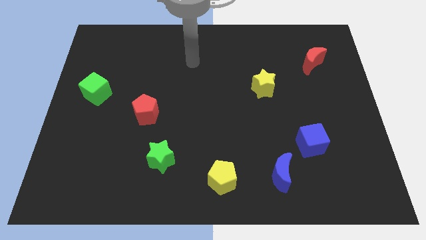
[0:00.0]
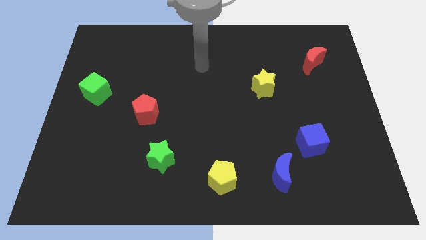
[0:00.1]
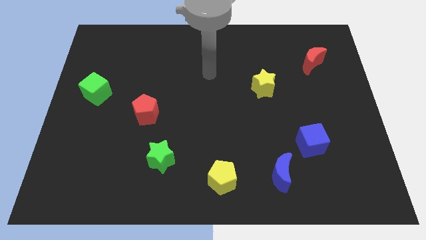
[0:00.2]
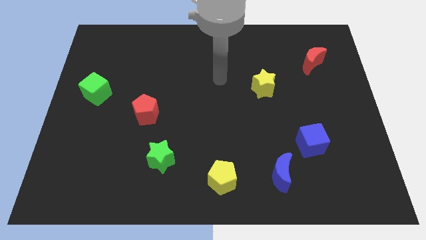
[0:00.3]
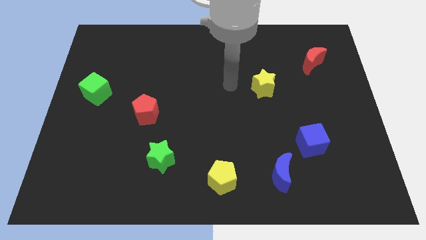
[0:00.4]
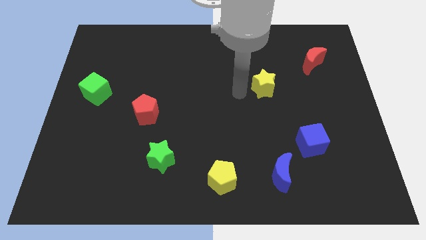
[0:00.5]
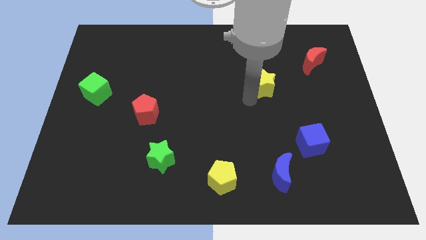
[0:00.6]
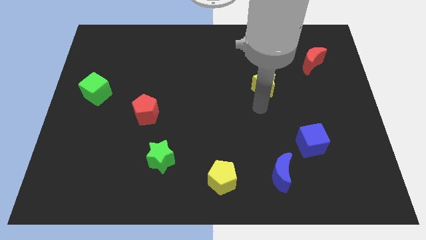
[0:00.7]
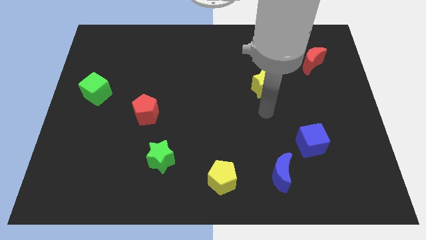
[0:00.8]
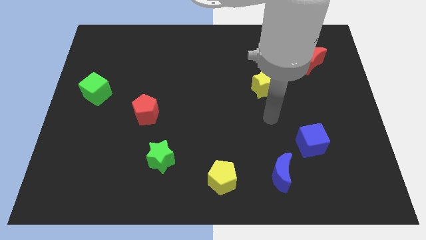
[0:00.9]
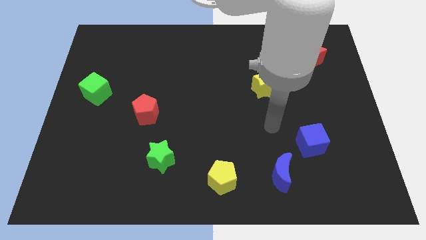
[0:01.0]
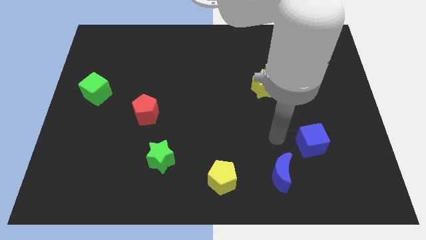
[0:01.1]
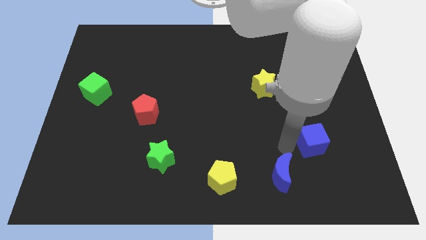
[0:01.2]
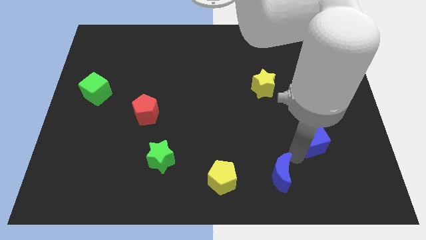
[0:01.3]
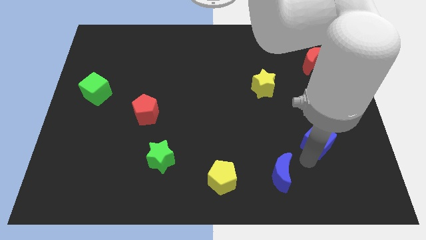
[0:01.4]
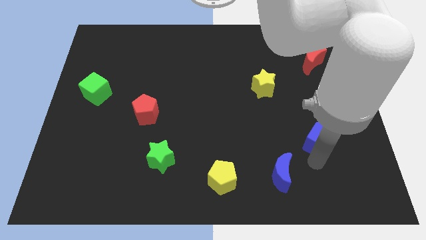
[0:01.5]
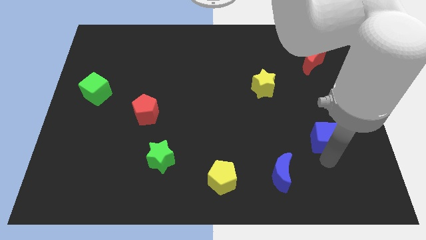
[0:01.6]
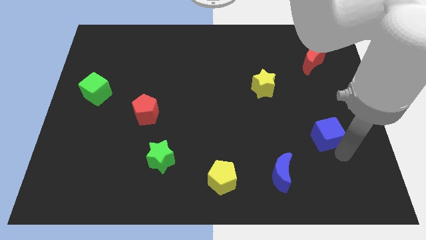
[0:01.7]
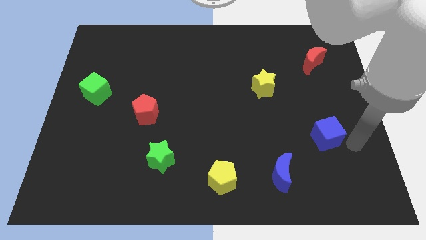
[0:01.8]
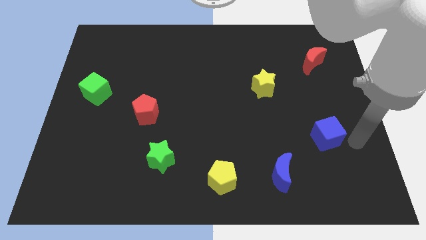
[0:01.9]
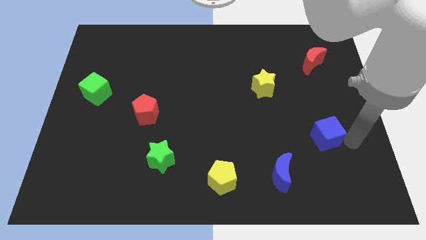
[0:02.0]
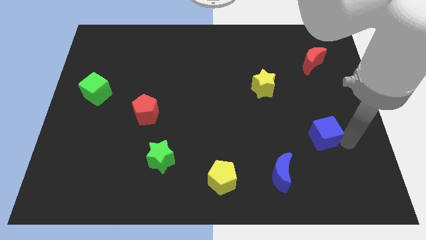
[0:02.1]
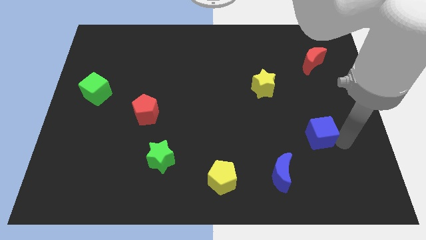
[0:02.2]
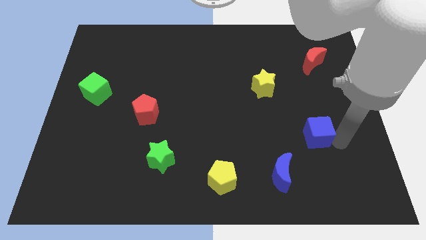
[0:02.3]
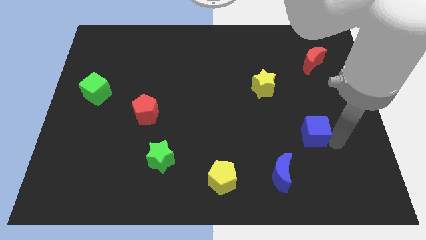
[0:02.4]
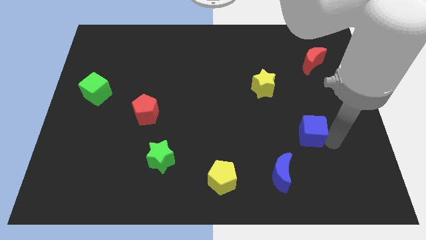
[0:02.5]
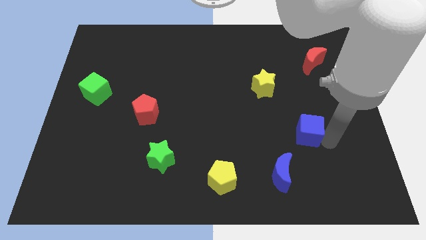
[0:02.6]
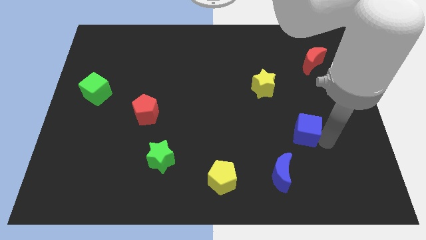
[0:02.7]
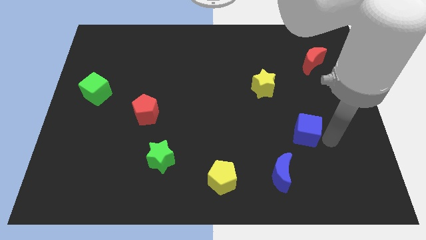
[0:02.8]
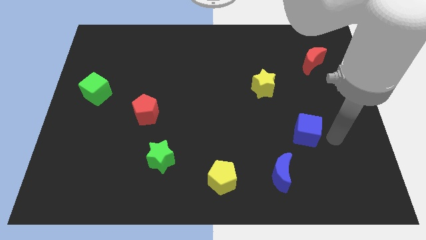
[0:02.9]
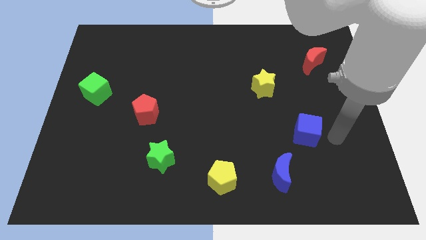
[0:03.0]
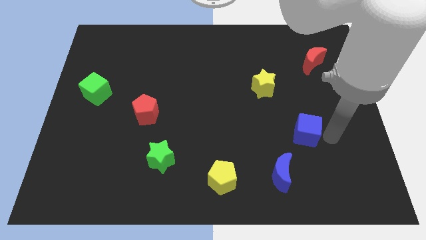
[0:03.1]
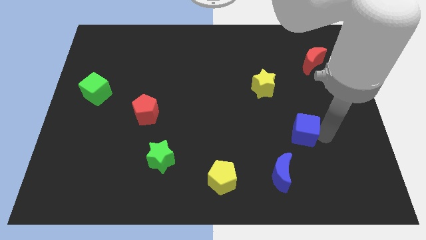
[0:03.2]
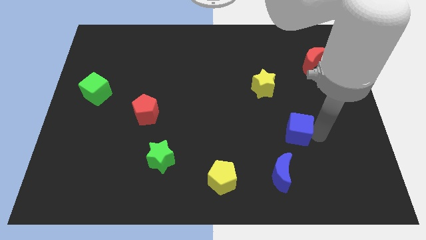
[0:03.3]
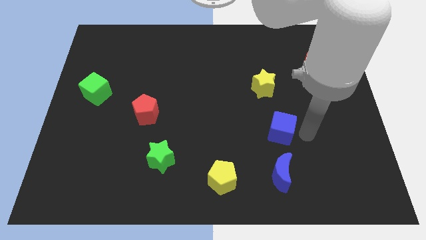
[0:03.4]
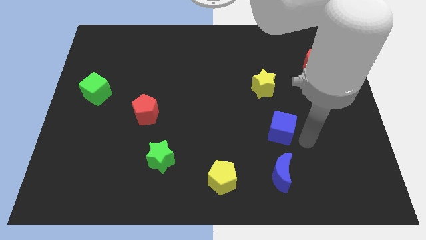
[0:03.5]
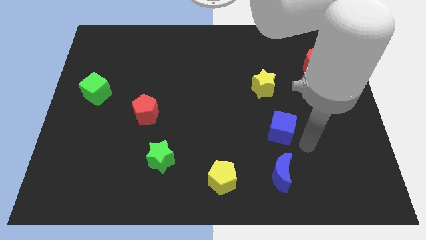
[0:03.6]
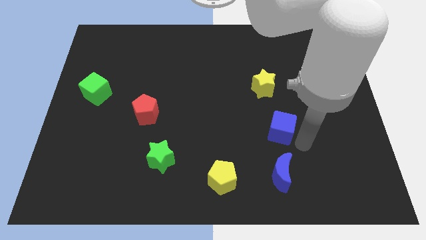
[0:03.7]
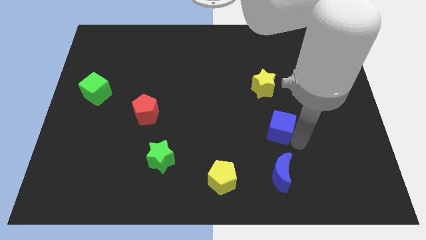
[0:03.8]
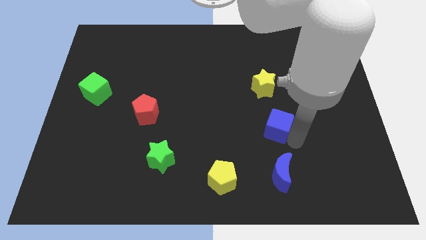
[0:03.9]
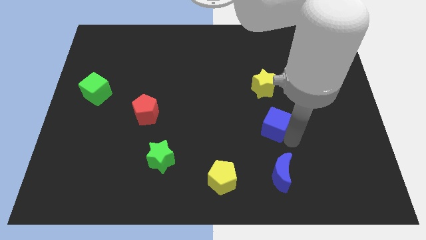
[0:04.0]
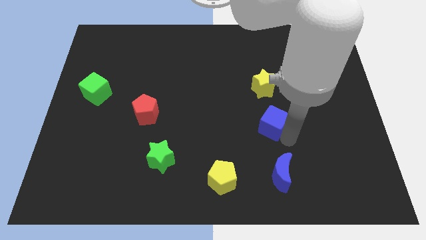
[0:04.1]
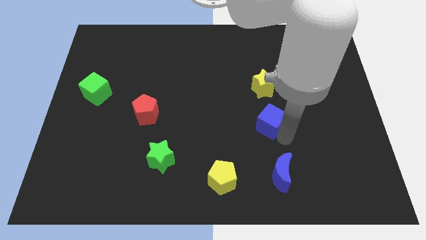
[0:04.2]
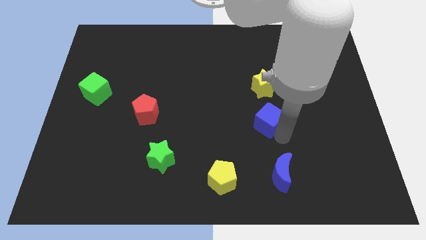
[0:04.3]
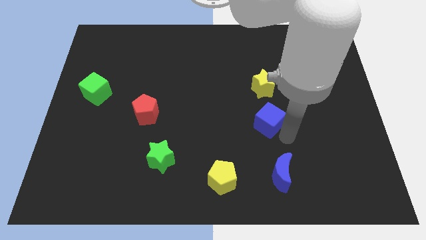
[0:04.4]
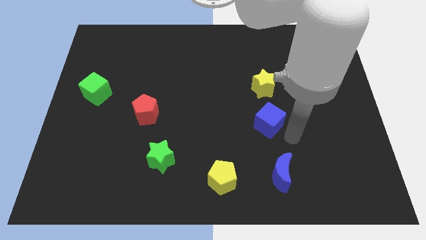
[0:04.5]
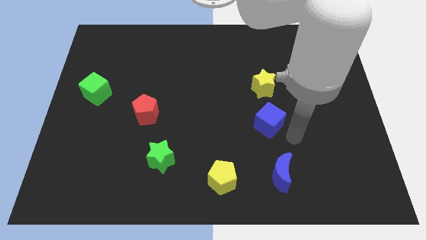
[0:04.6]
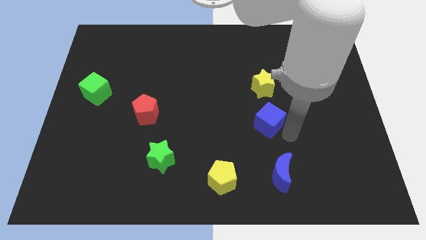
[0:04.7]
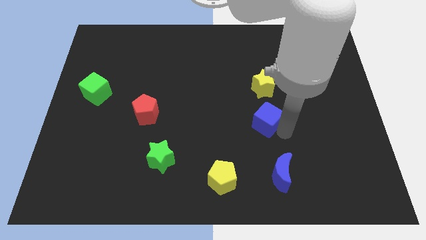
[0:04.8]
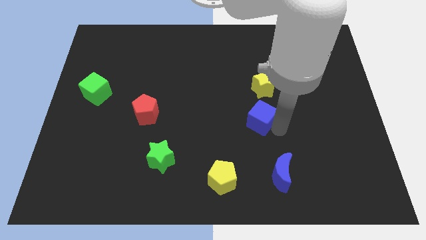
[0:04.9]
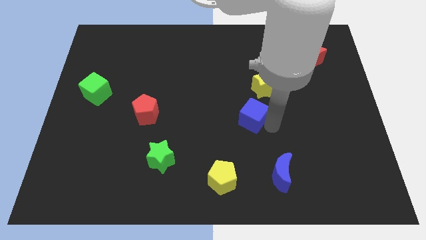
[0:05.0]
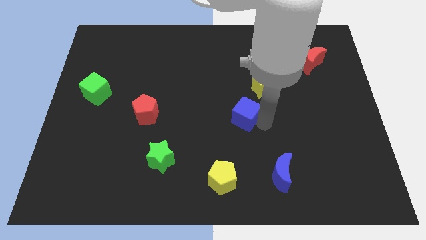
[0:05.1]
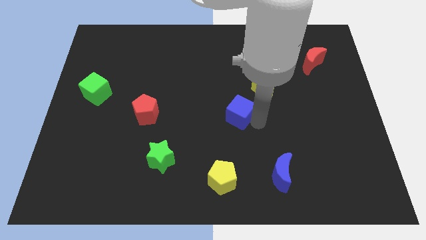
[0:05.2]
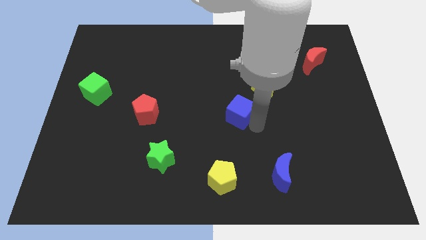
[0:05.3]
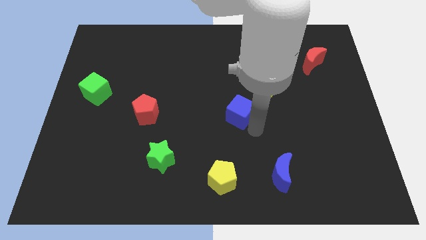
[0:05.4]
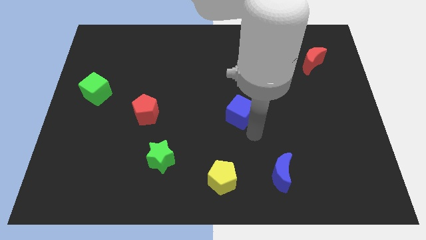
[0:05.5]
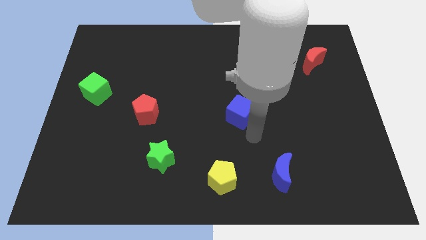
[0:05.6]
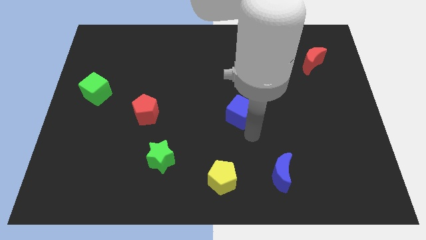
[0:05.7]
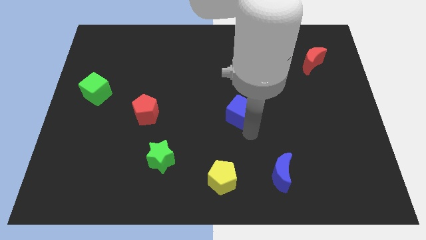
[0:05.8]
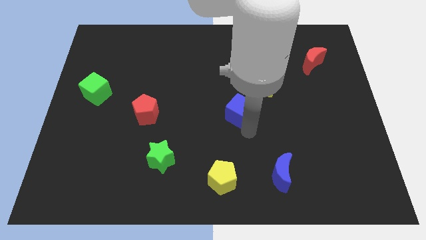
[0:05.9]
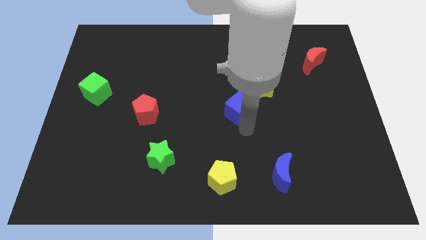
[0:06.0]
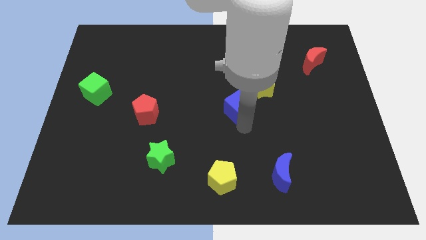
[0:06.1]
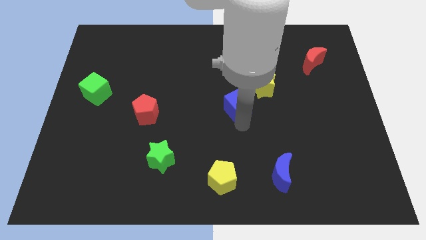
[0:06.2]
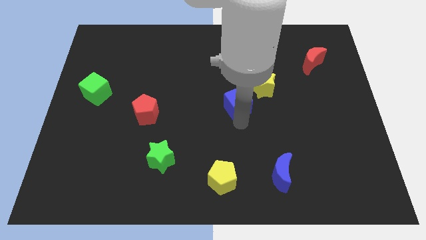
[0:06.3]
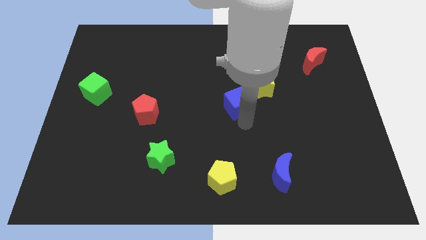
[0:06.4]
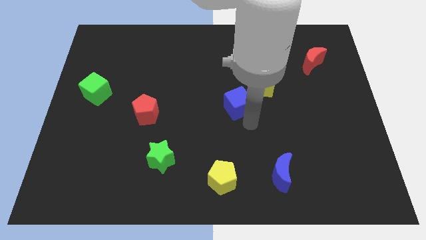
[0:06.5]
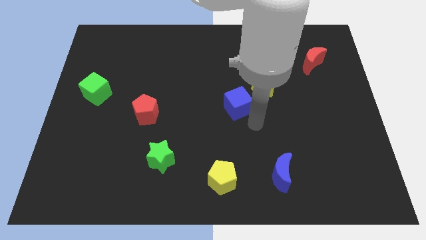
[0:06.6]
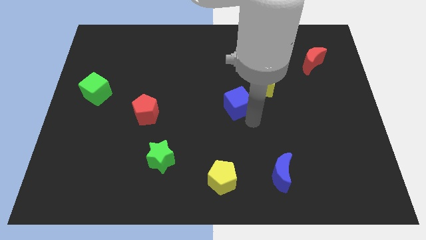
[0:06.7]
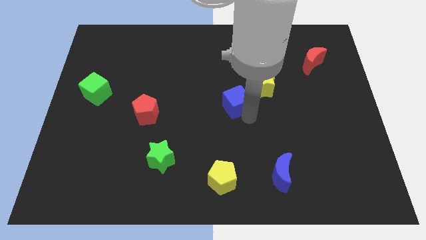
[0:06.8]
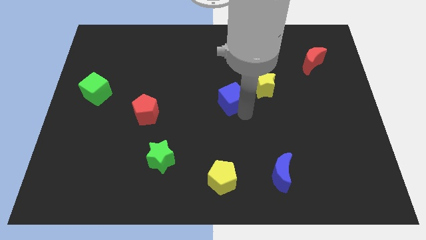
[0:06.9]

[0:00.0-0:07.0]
push the blue cube upwards and left

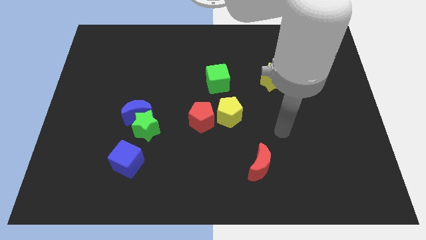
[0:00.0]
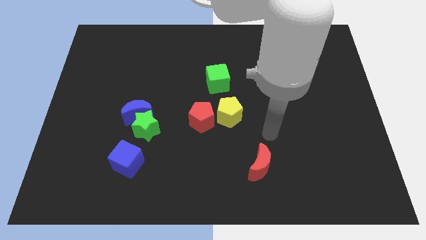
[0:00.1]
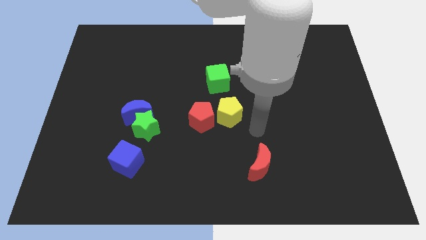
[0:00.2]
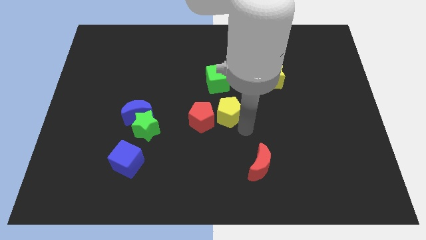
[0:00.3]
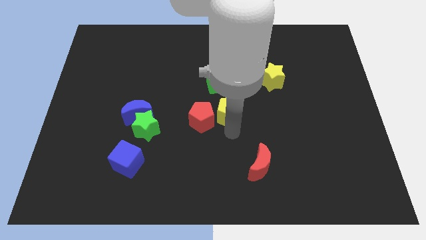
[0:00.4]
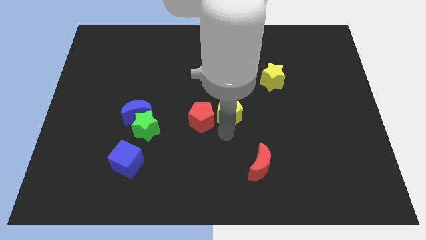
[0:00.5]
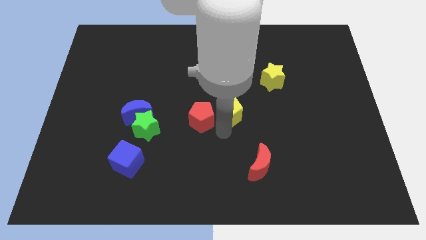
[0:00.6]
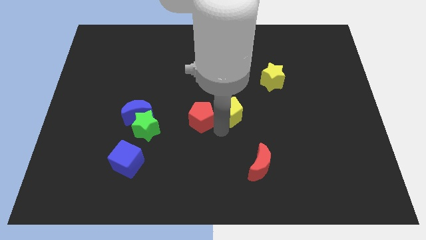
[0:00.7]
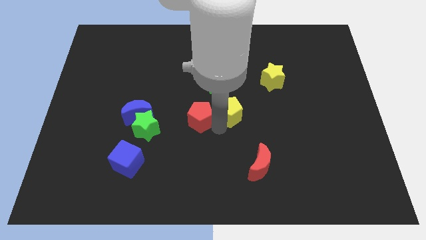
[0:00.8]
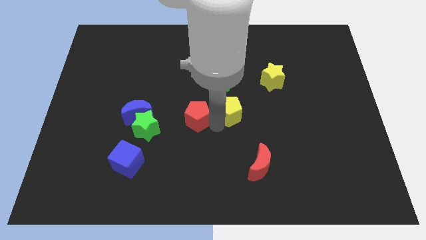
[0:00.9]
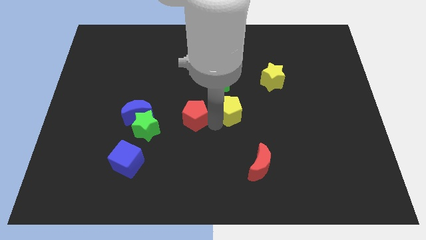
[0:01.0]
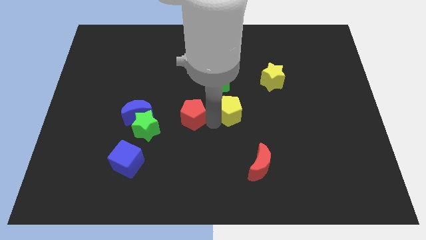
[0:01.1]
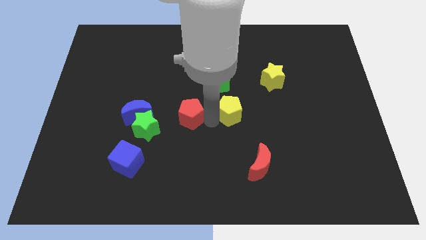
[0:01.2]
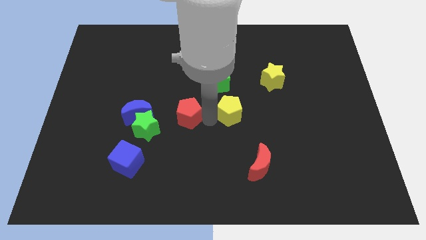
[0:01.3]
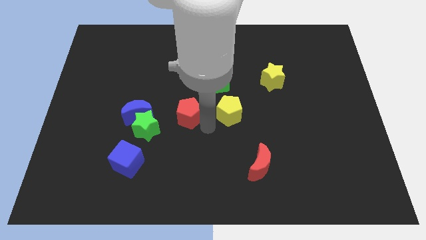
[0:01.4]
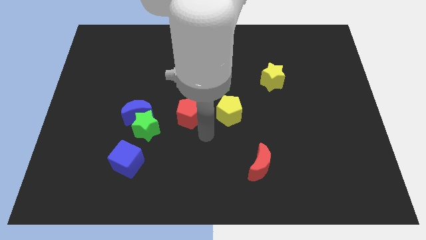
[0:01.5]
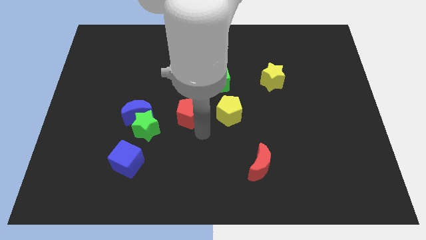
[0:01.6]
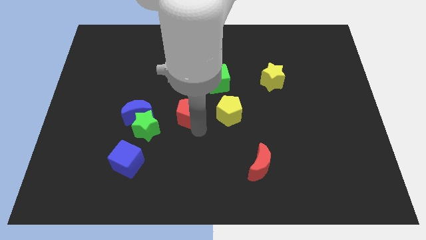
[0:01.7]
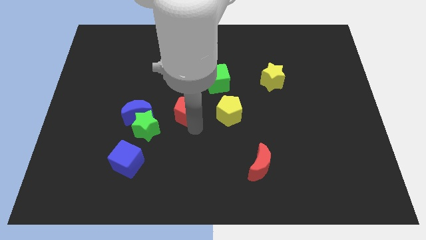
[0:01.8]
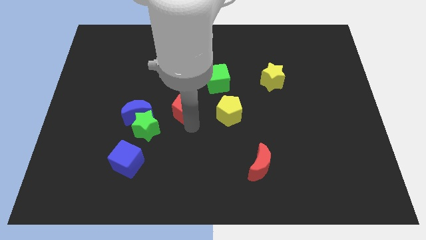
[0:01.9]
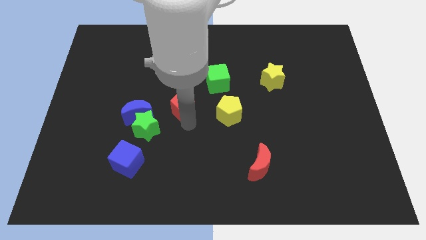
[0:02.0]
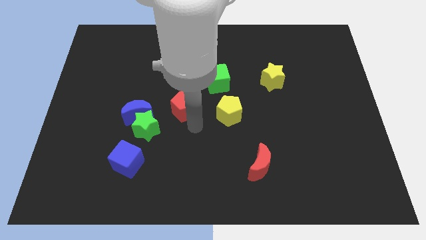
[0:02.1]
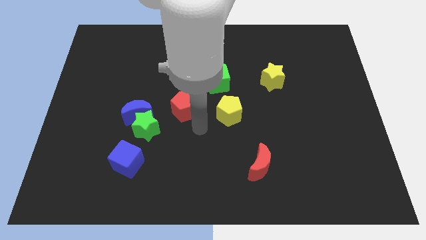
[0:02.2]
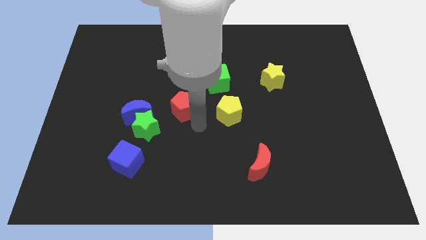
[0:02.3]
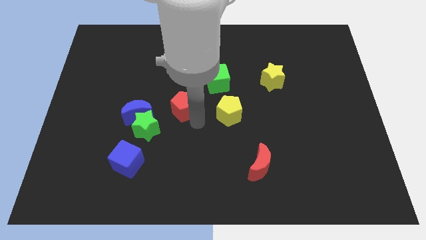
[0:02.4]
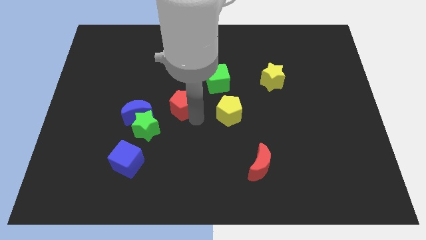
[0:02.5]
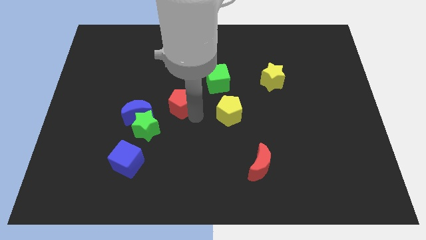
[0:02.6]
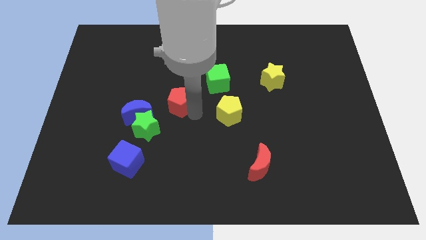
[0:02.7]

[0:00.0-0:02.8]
push the red pentagon slightly diagonally up and left
